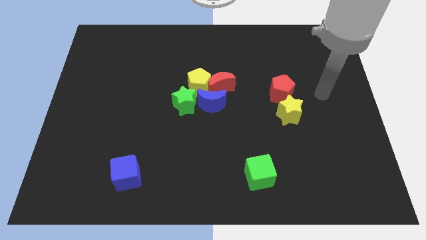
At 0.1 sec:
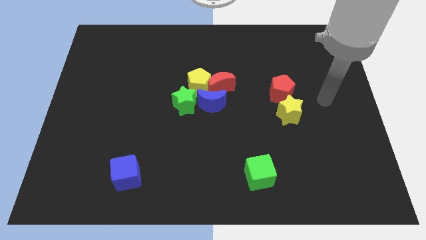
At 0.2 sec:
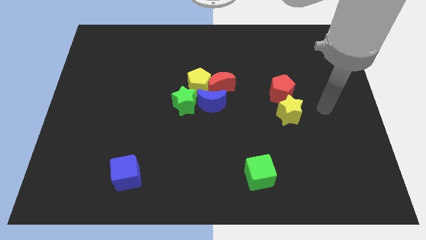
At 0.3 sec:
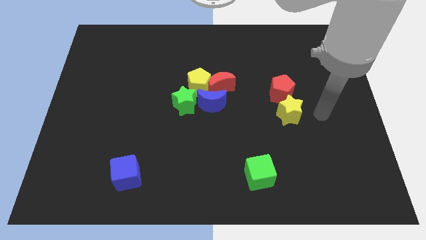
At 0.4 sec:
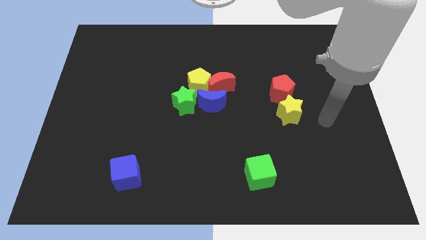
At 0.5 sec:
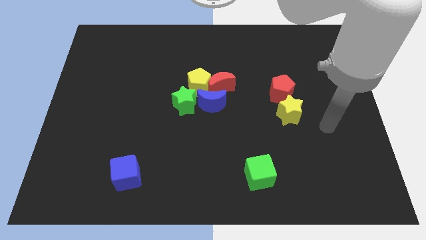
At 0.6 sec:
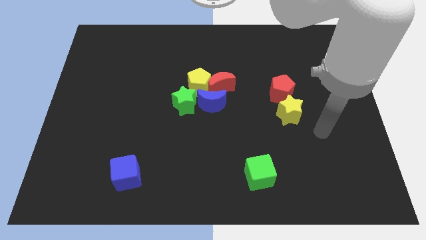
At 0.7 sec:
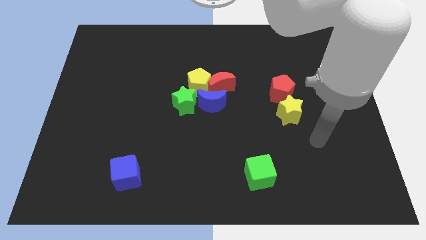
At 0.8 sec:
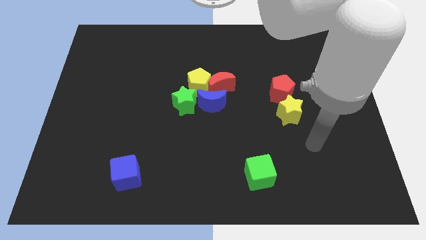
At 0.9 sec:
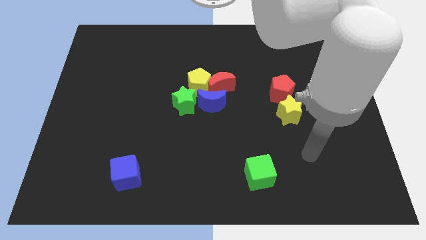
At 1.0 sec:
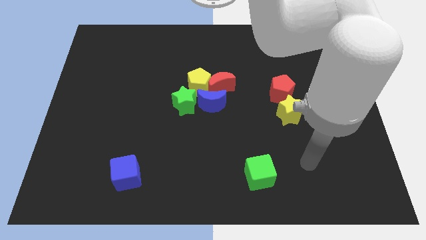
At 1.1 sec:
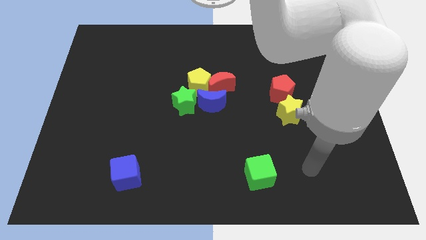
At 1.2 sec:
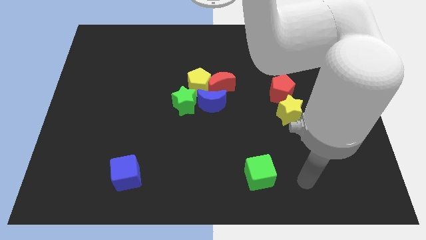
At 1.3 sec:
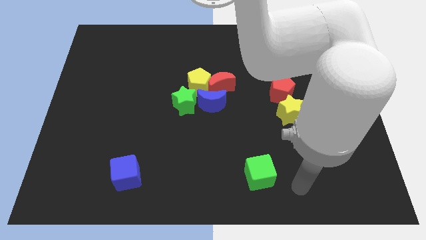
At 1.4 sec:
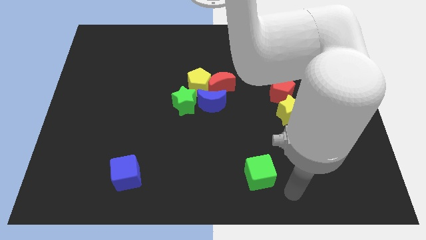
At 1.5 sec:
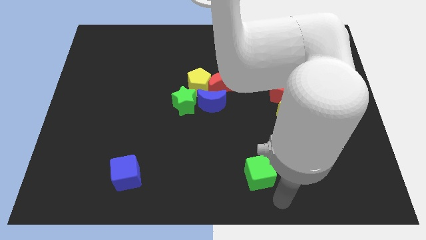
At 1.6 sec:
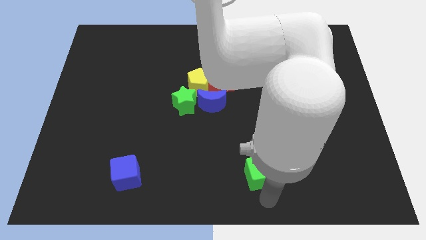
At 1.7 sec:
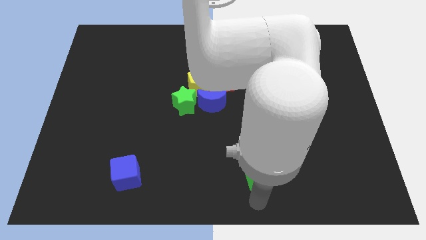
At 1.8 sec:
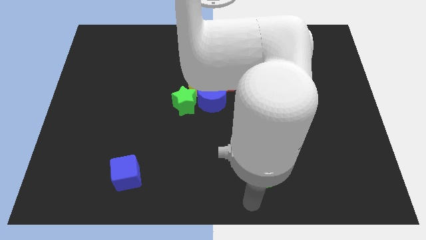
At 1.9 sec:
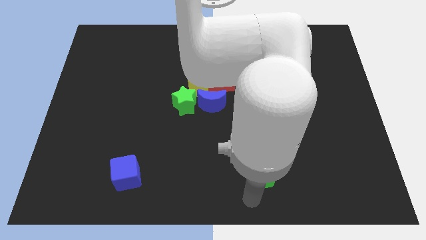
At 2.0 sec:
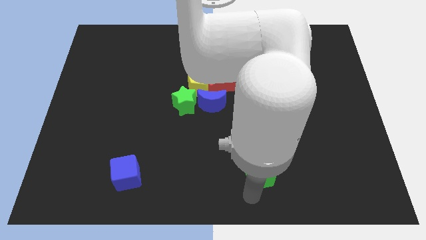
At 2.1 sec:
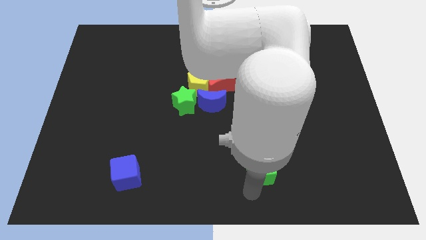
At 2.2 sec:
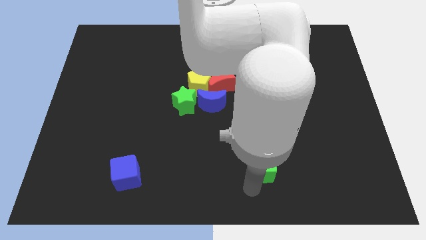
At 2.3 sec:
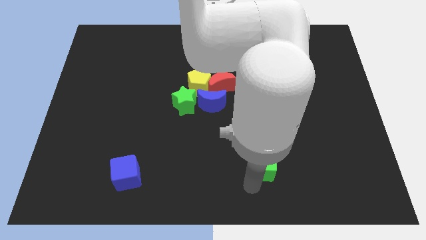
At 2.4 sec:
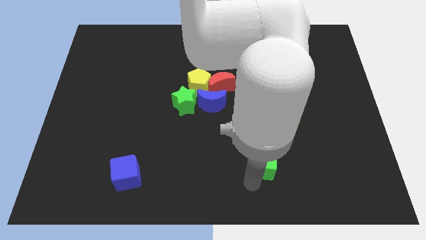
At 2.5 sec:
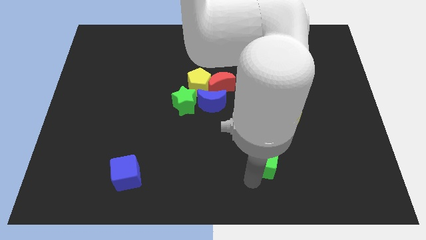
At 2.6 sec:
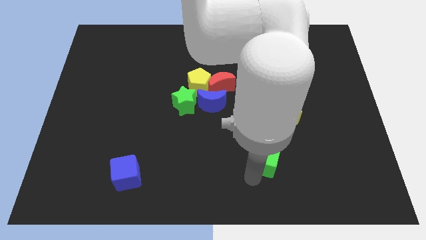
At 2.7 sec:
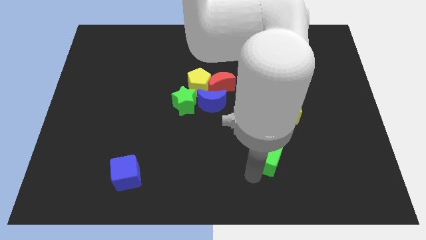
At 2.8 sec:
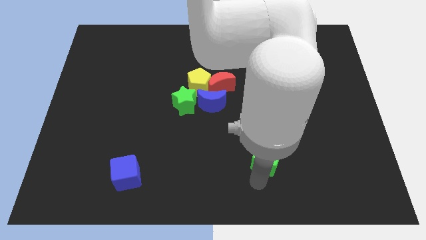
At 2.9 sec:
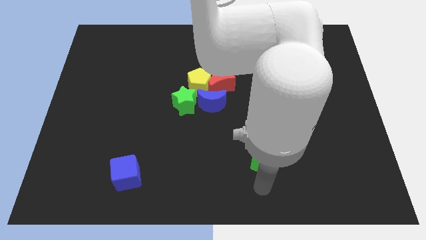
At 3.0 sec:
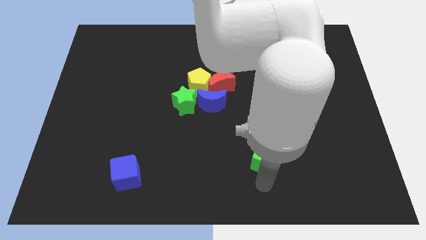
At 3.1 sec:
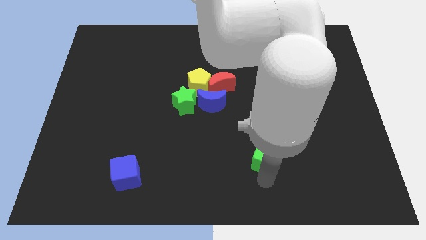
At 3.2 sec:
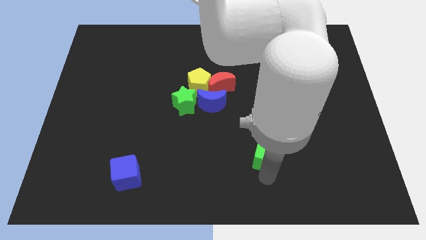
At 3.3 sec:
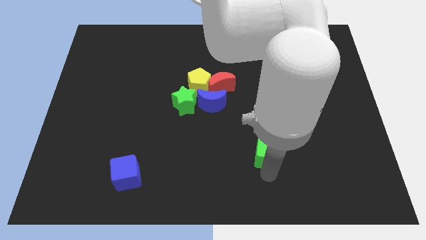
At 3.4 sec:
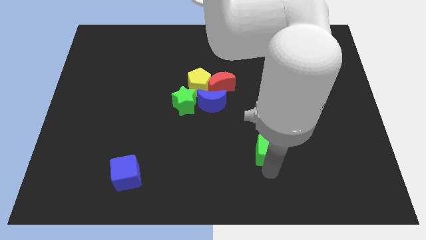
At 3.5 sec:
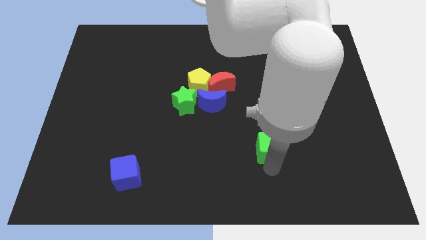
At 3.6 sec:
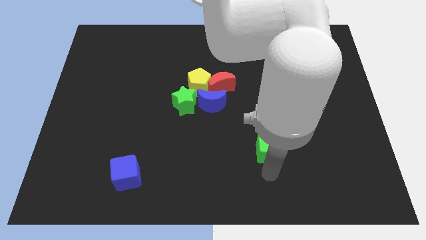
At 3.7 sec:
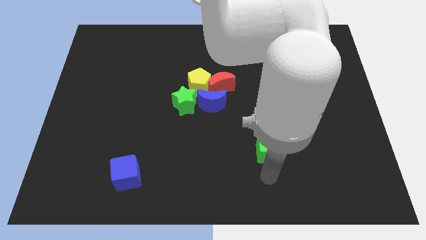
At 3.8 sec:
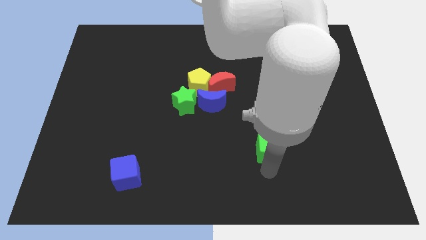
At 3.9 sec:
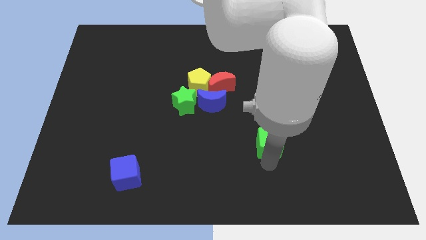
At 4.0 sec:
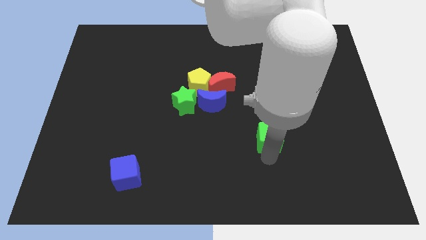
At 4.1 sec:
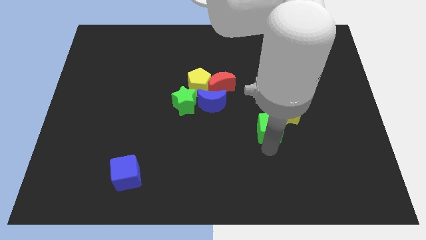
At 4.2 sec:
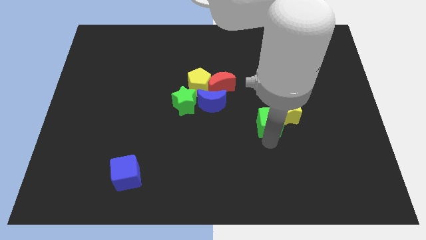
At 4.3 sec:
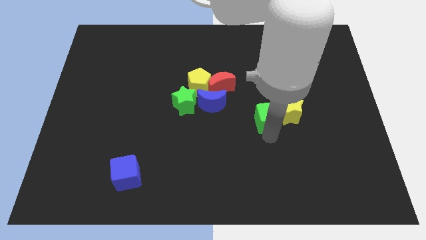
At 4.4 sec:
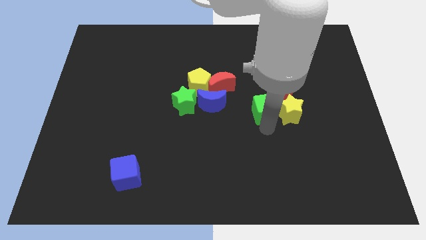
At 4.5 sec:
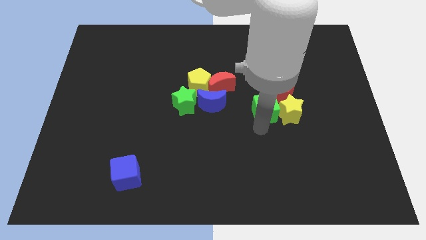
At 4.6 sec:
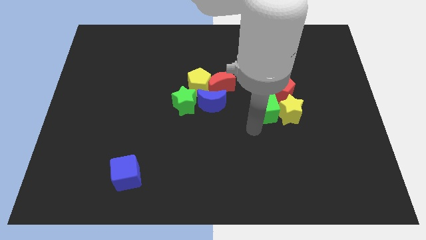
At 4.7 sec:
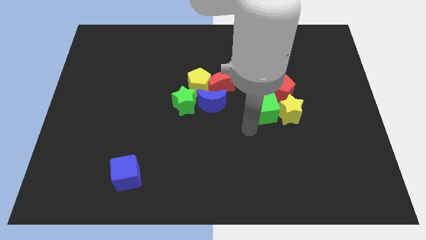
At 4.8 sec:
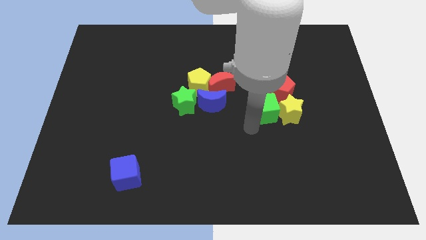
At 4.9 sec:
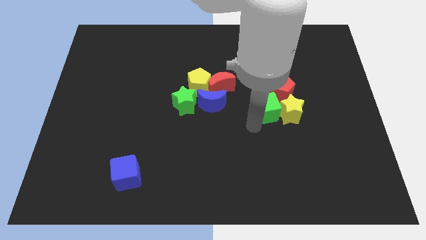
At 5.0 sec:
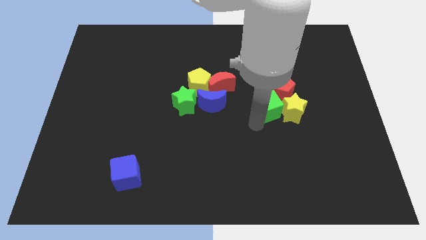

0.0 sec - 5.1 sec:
put the green cube next to the red pentagon

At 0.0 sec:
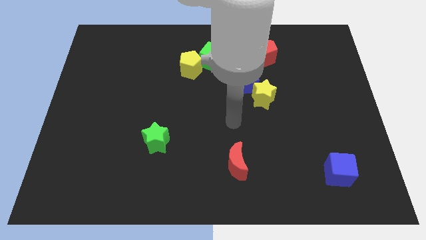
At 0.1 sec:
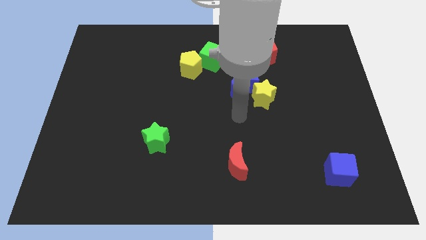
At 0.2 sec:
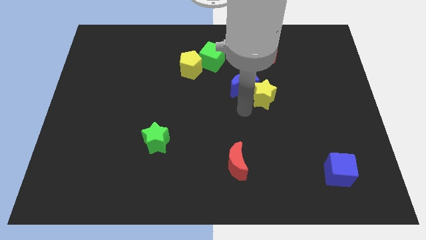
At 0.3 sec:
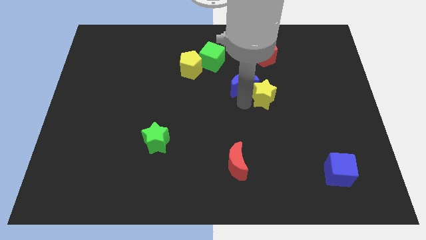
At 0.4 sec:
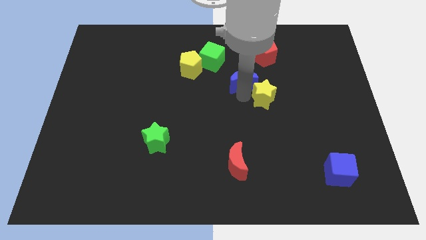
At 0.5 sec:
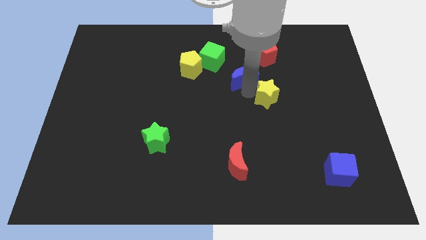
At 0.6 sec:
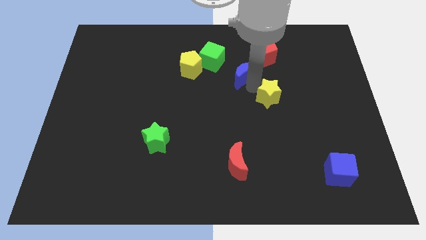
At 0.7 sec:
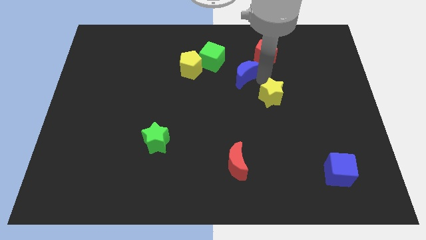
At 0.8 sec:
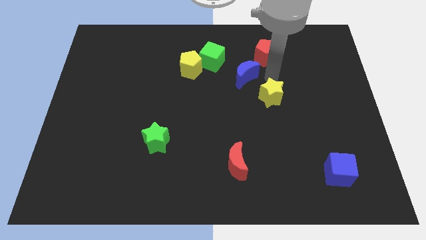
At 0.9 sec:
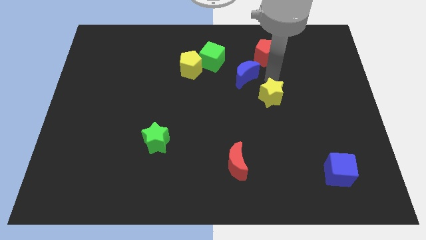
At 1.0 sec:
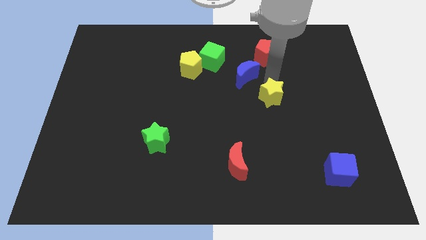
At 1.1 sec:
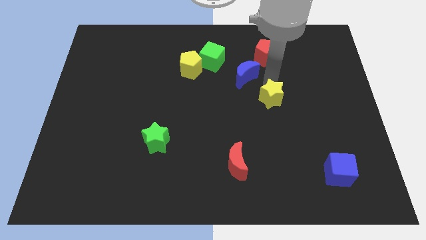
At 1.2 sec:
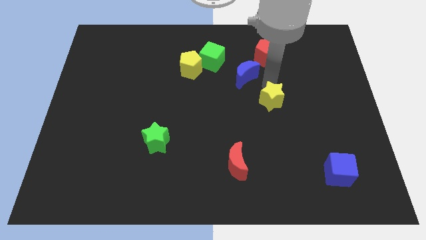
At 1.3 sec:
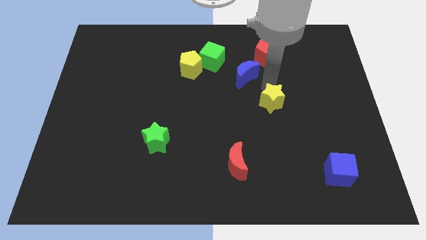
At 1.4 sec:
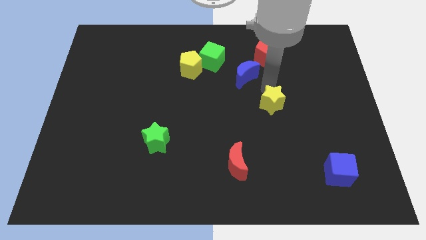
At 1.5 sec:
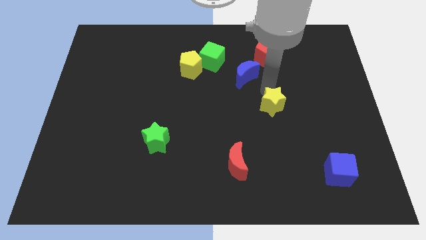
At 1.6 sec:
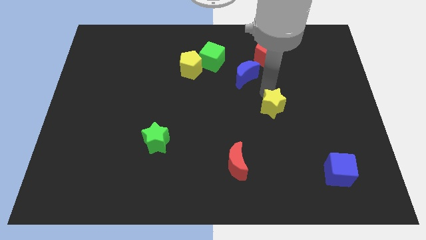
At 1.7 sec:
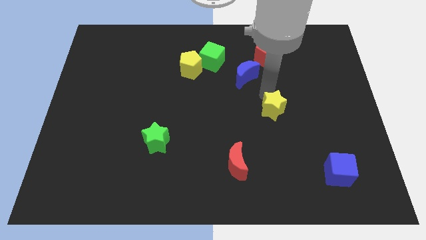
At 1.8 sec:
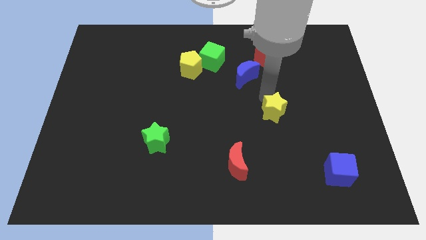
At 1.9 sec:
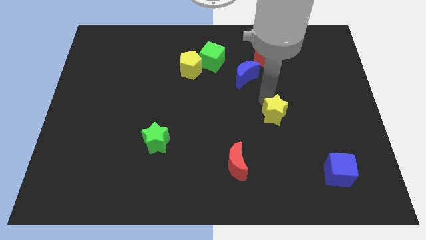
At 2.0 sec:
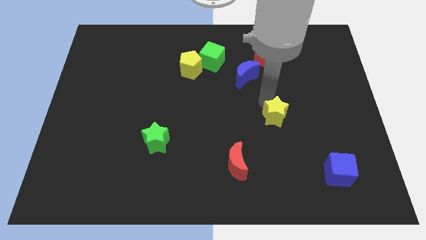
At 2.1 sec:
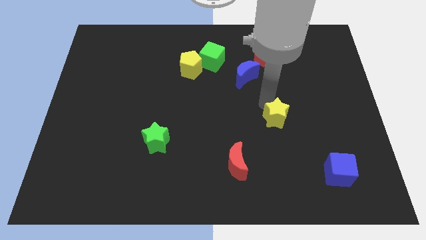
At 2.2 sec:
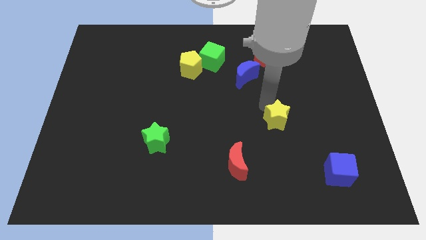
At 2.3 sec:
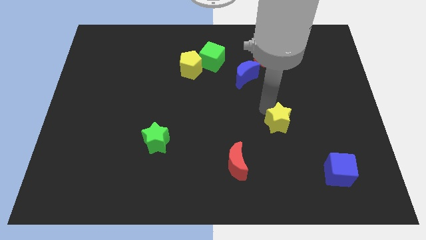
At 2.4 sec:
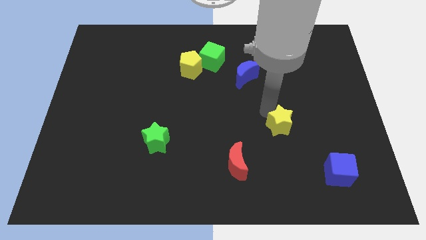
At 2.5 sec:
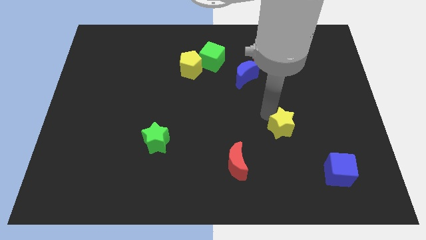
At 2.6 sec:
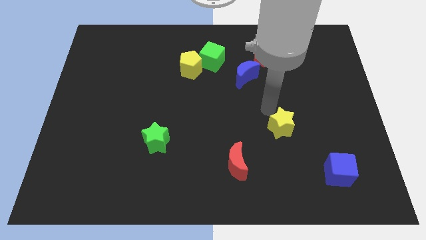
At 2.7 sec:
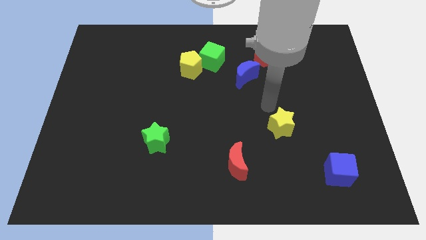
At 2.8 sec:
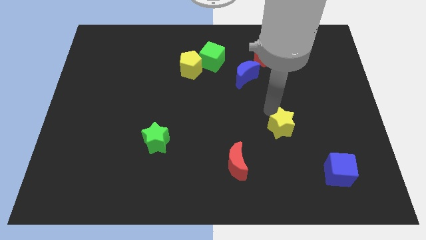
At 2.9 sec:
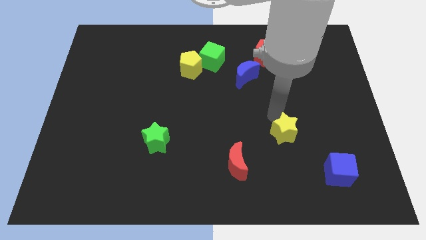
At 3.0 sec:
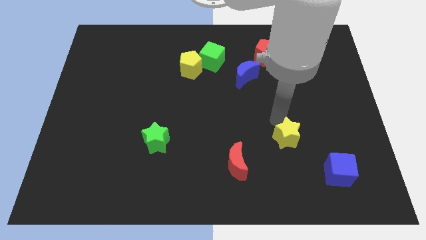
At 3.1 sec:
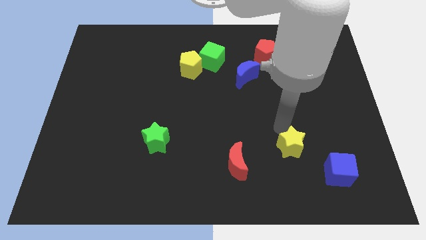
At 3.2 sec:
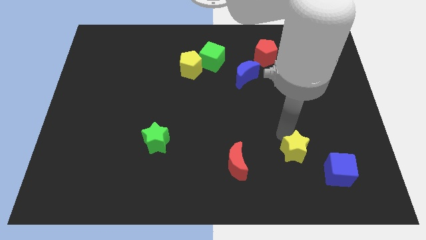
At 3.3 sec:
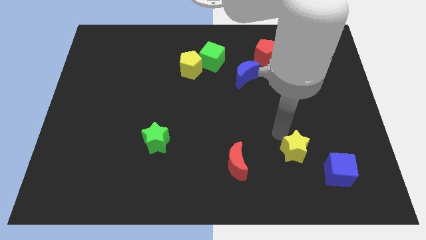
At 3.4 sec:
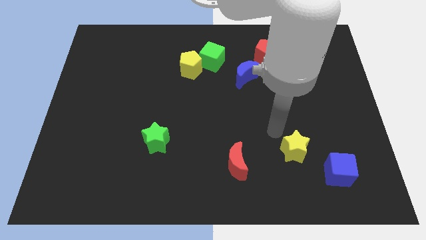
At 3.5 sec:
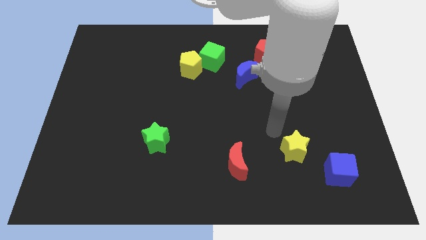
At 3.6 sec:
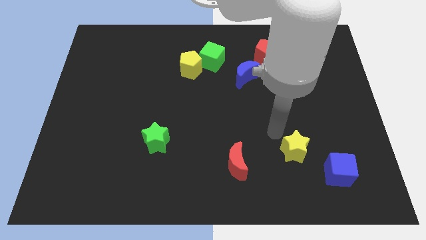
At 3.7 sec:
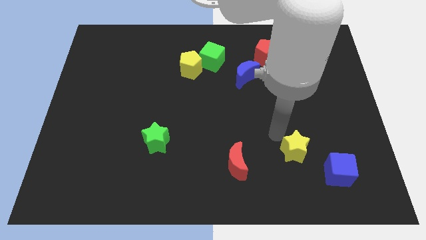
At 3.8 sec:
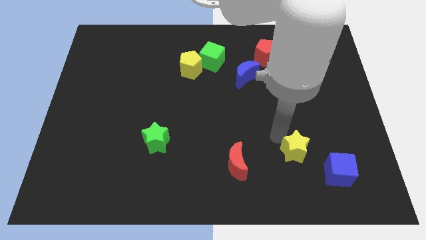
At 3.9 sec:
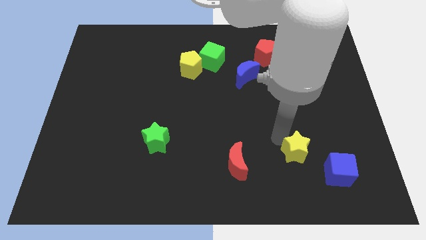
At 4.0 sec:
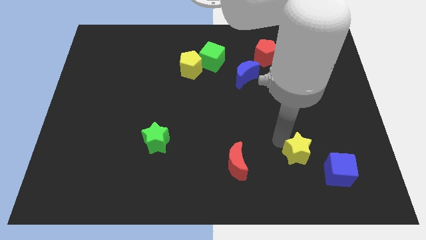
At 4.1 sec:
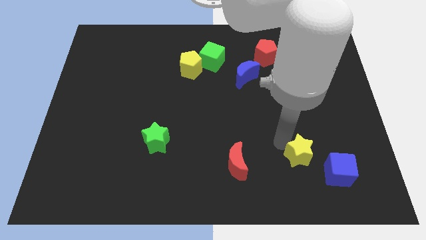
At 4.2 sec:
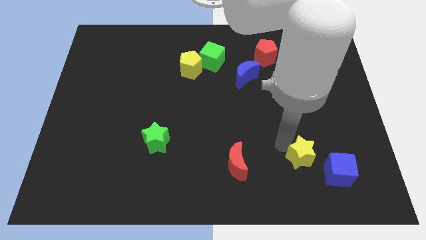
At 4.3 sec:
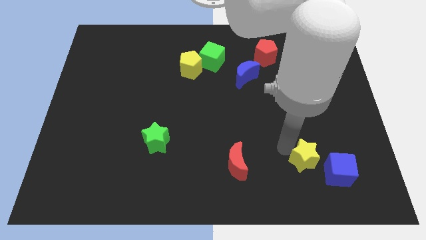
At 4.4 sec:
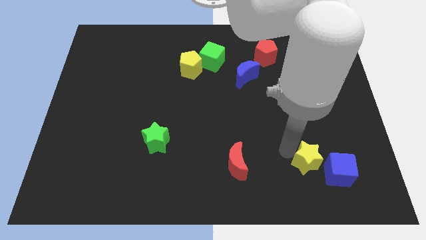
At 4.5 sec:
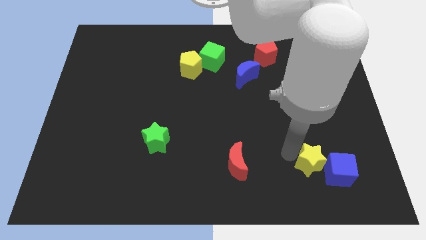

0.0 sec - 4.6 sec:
put the yellow star towards the blue cube
